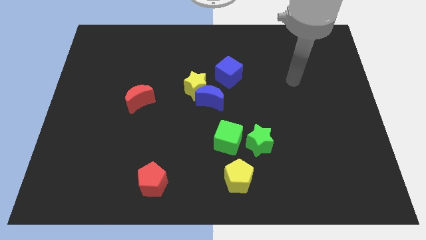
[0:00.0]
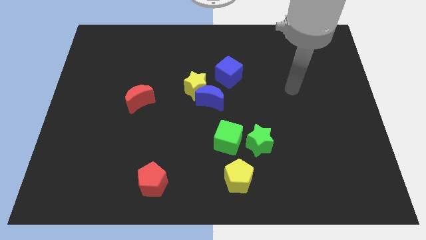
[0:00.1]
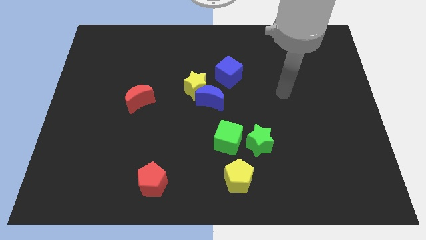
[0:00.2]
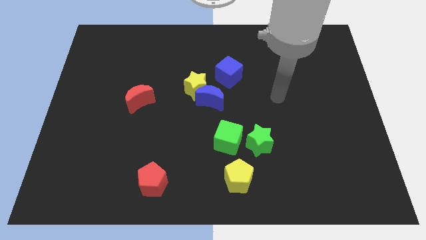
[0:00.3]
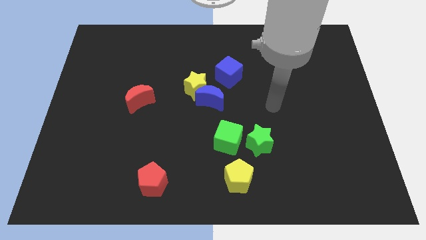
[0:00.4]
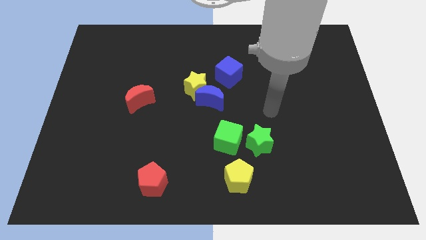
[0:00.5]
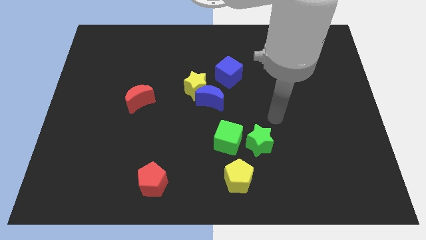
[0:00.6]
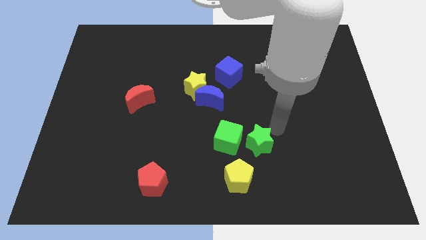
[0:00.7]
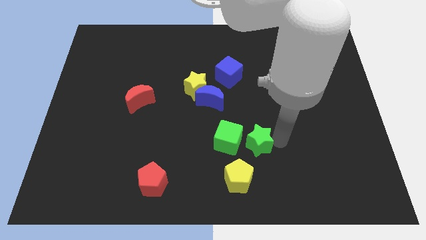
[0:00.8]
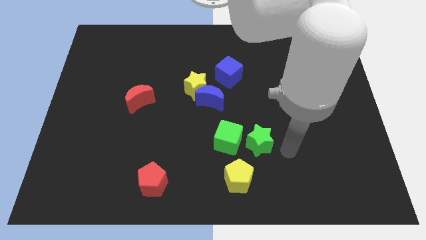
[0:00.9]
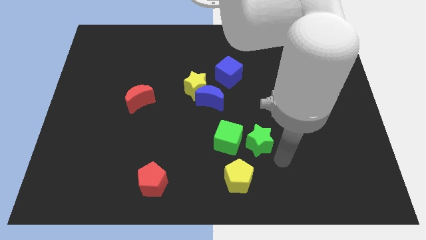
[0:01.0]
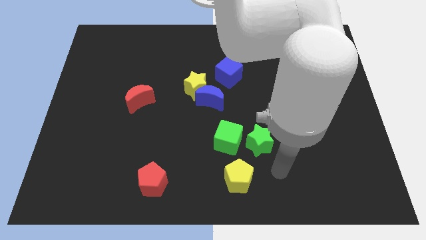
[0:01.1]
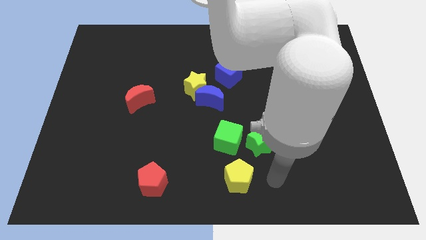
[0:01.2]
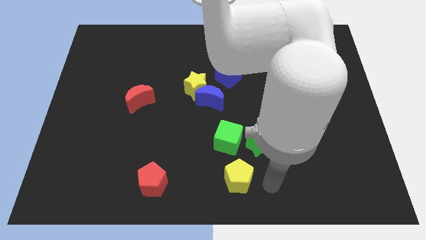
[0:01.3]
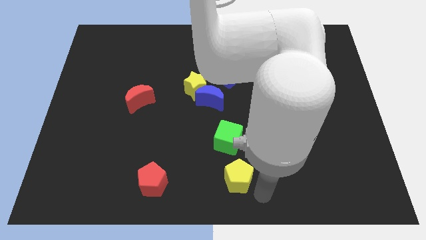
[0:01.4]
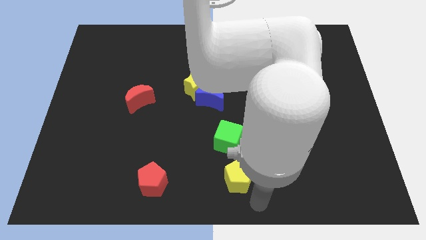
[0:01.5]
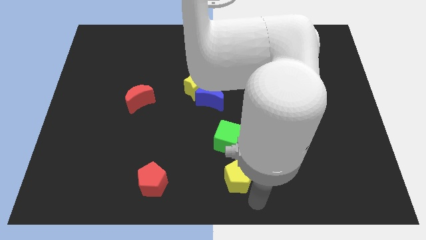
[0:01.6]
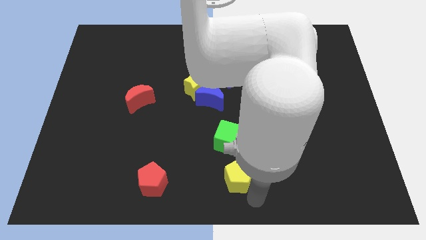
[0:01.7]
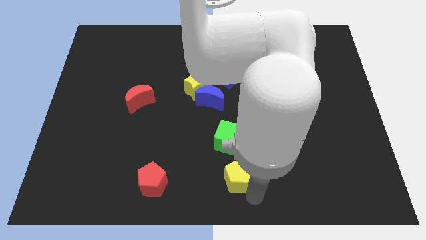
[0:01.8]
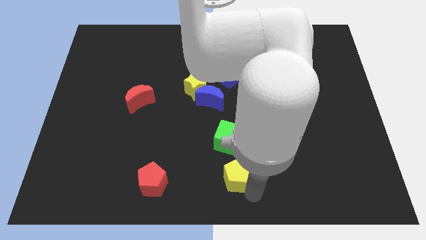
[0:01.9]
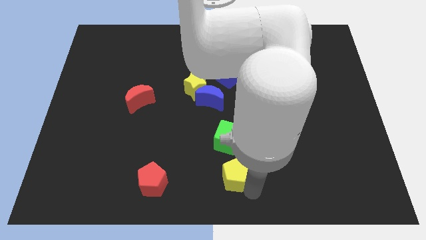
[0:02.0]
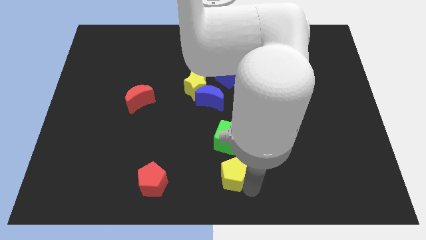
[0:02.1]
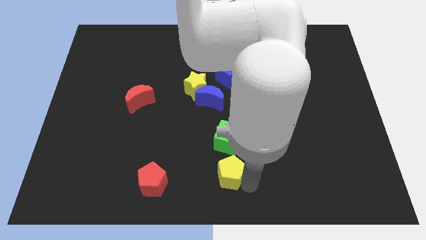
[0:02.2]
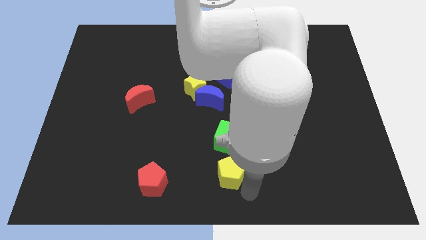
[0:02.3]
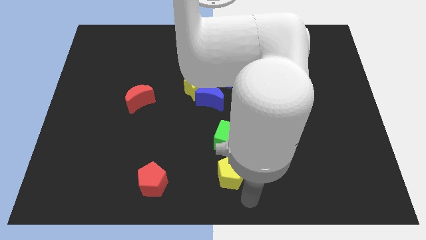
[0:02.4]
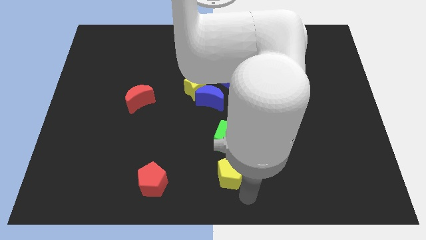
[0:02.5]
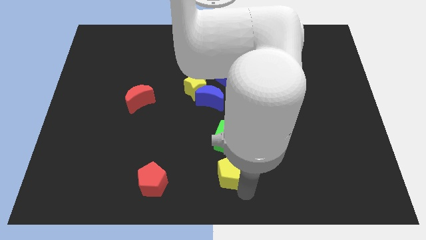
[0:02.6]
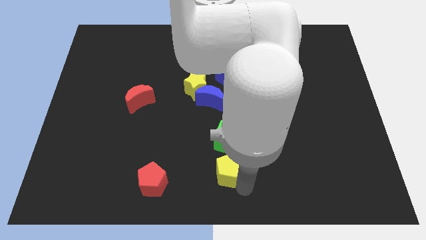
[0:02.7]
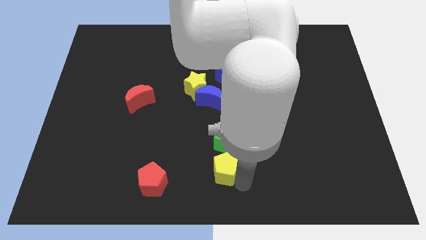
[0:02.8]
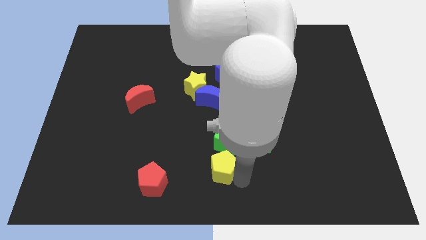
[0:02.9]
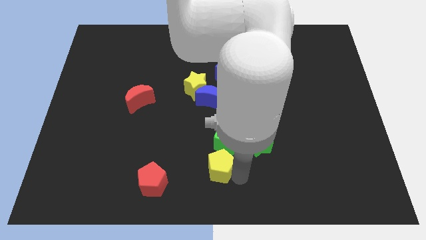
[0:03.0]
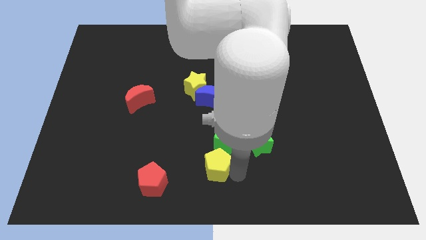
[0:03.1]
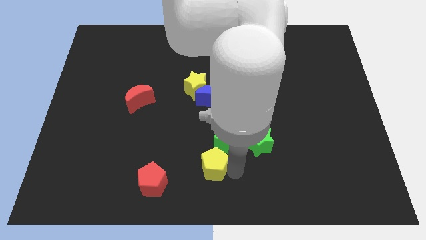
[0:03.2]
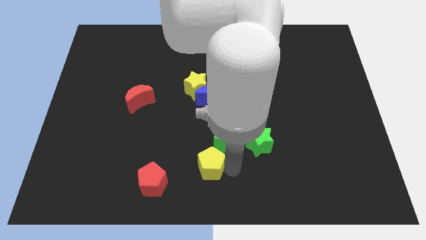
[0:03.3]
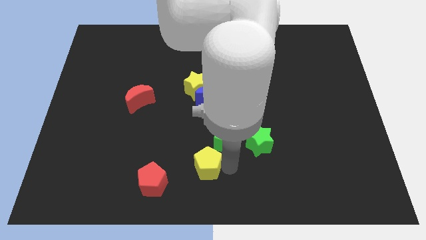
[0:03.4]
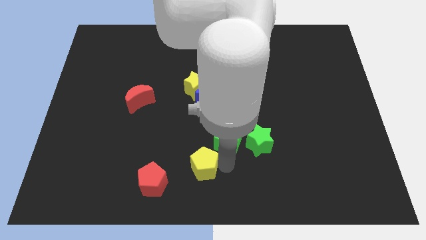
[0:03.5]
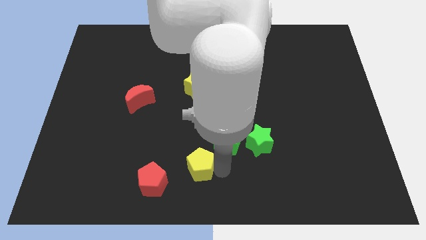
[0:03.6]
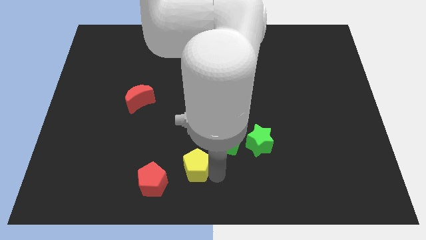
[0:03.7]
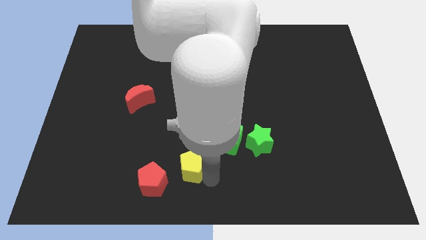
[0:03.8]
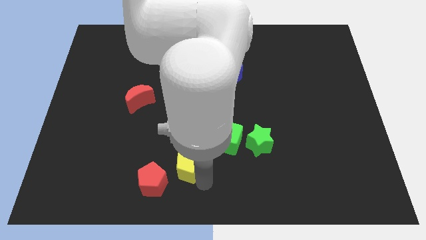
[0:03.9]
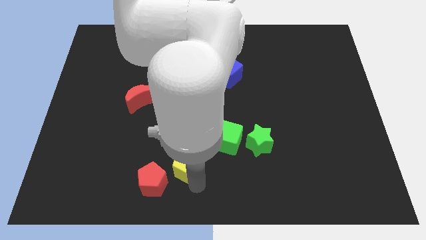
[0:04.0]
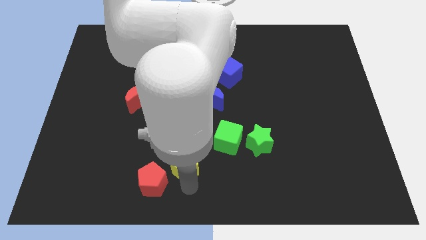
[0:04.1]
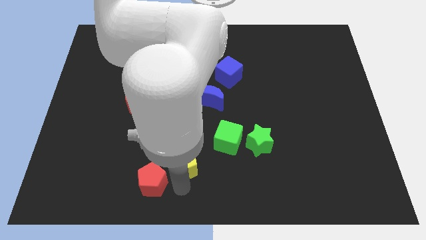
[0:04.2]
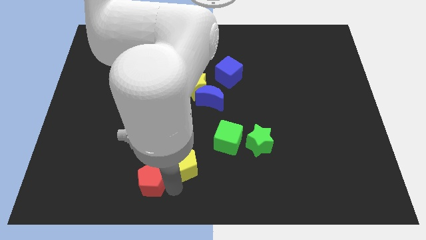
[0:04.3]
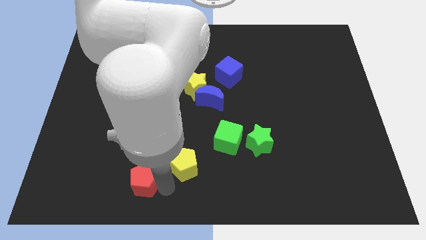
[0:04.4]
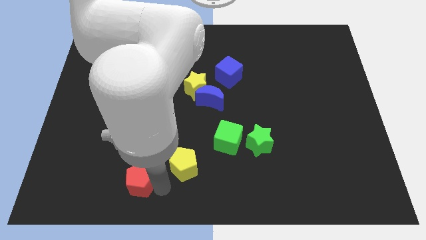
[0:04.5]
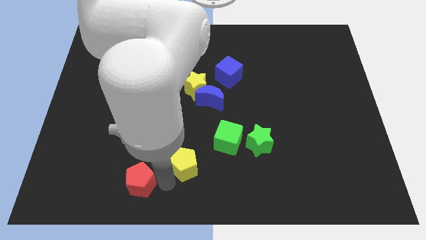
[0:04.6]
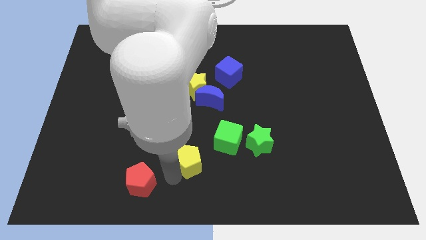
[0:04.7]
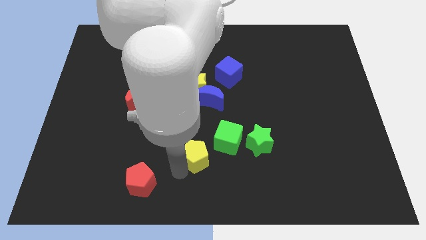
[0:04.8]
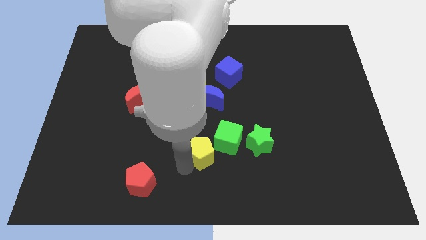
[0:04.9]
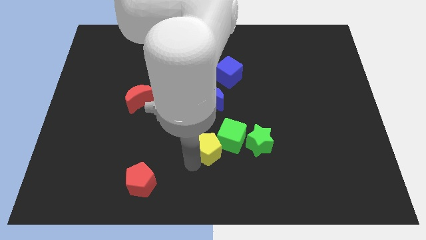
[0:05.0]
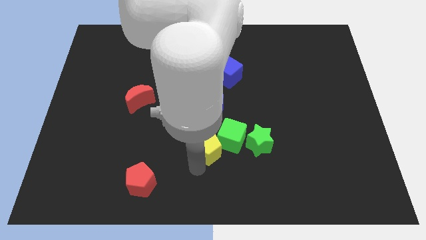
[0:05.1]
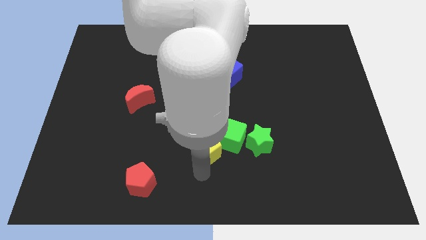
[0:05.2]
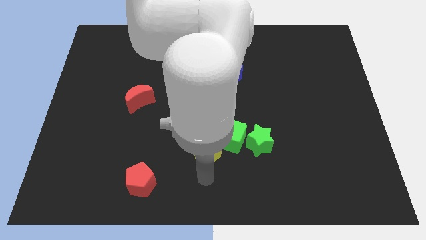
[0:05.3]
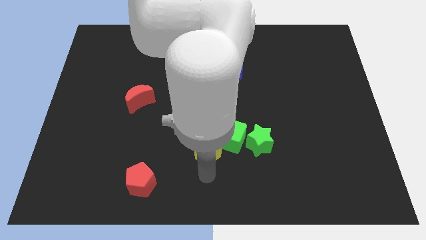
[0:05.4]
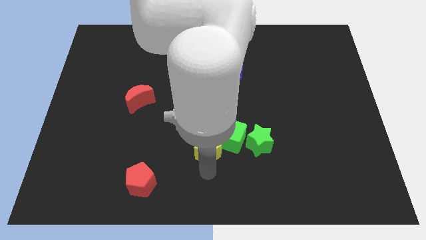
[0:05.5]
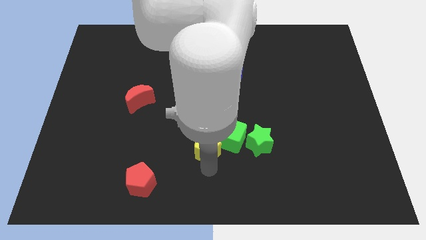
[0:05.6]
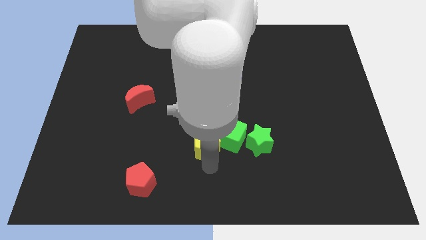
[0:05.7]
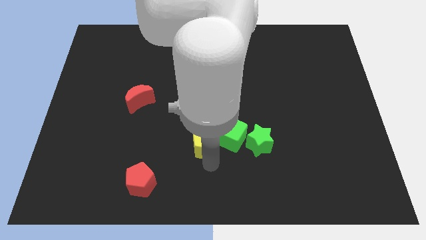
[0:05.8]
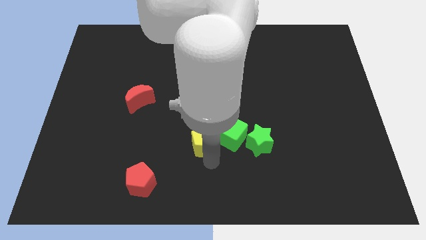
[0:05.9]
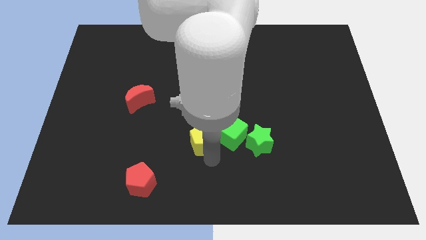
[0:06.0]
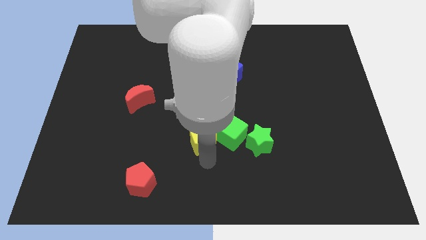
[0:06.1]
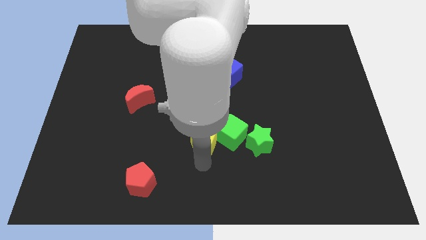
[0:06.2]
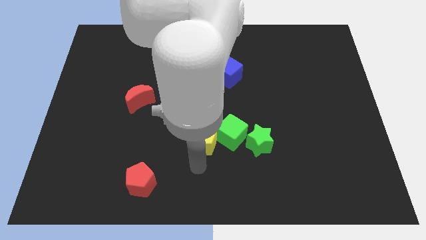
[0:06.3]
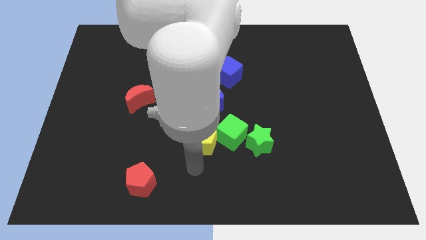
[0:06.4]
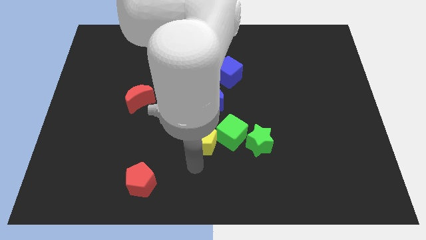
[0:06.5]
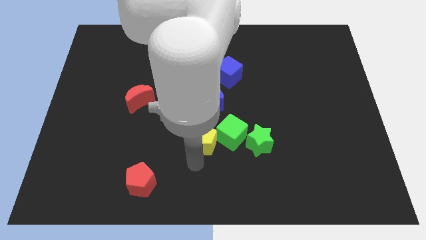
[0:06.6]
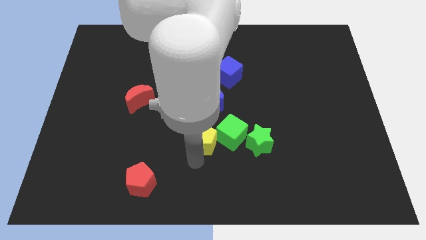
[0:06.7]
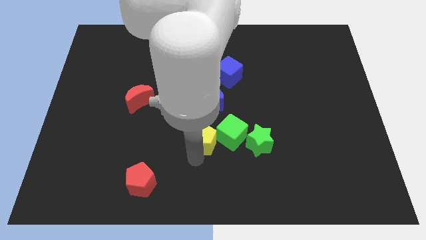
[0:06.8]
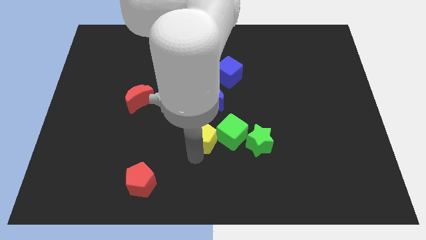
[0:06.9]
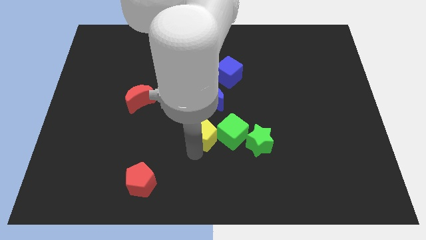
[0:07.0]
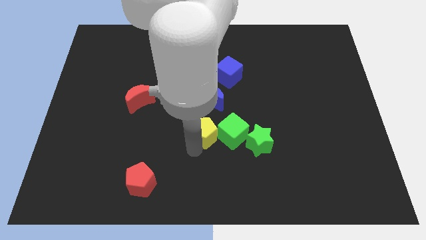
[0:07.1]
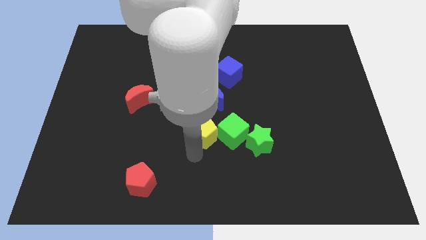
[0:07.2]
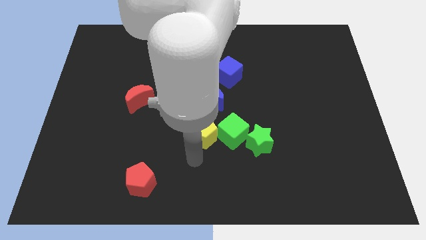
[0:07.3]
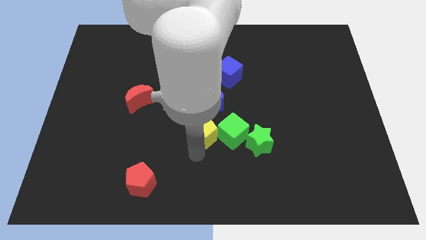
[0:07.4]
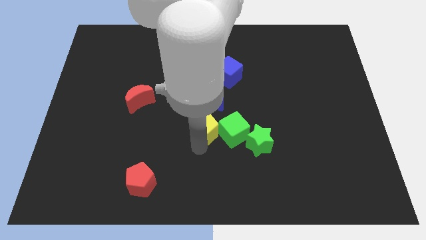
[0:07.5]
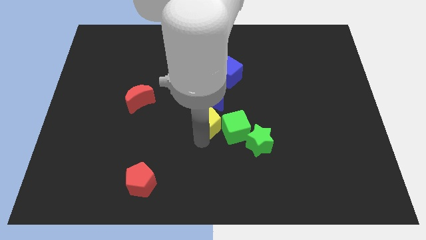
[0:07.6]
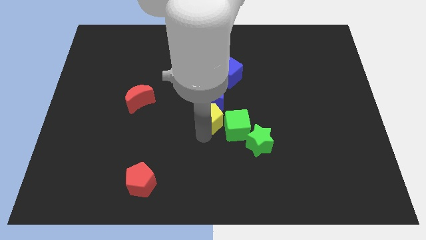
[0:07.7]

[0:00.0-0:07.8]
push the yellow pentagon close to the blue moon
